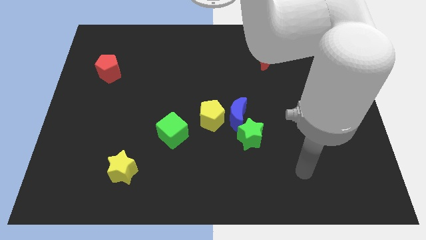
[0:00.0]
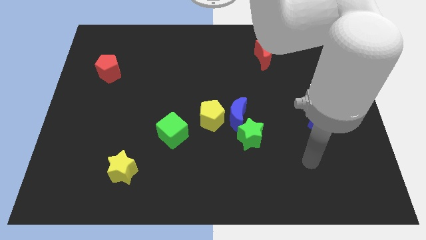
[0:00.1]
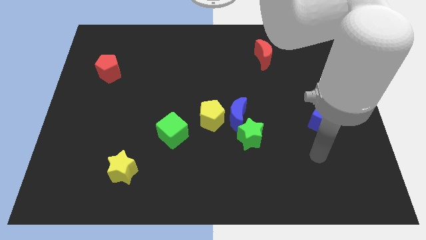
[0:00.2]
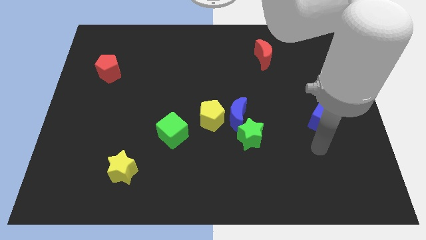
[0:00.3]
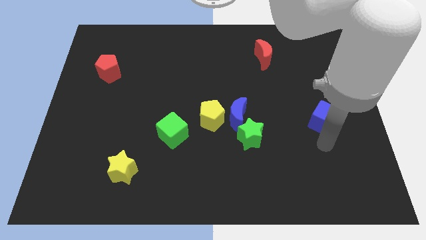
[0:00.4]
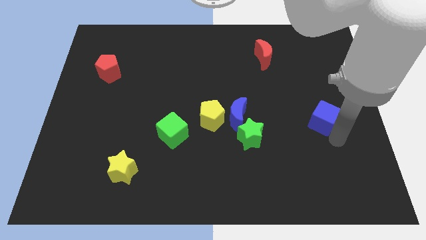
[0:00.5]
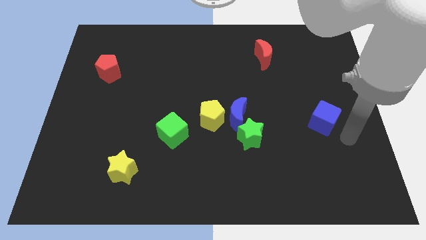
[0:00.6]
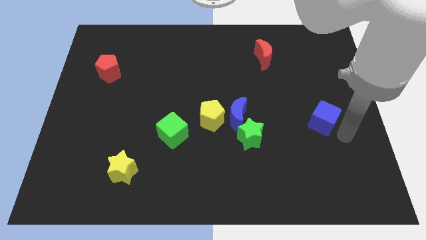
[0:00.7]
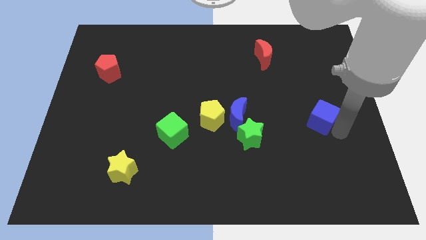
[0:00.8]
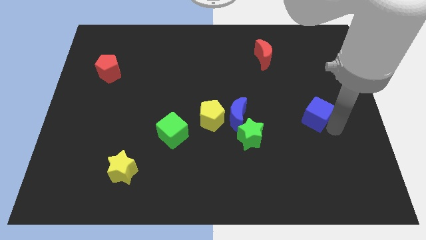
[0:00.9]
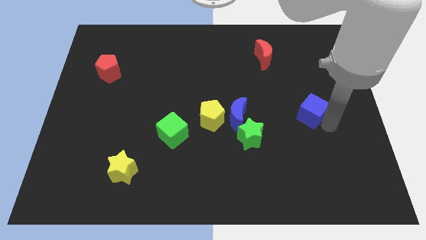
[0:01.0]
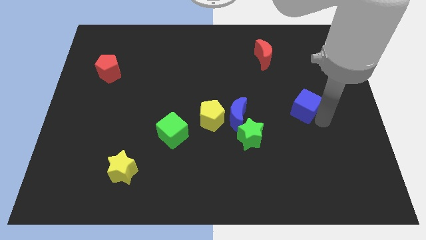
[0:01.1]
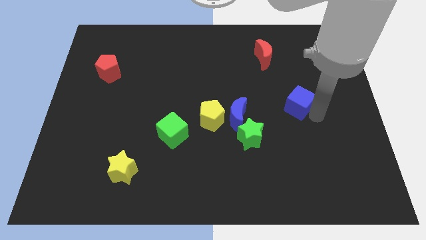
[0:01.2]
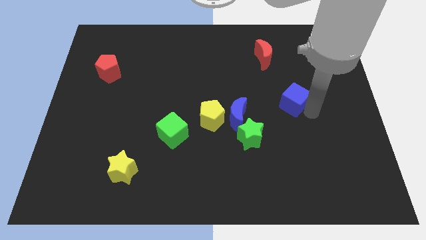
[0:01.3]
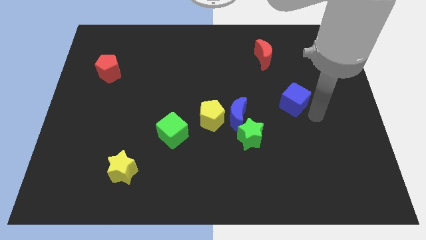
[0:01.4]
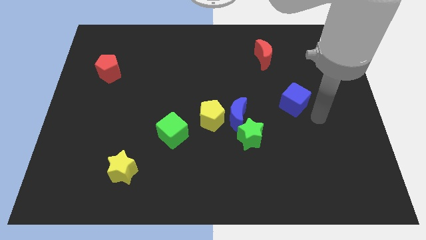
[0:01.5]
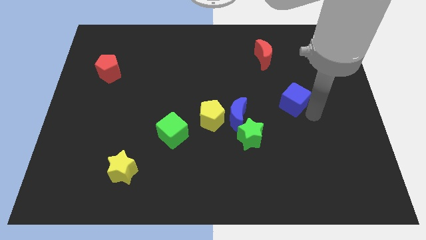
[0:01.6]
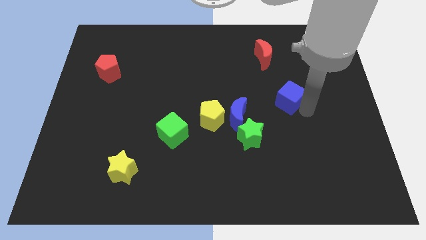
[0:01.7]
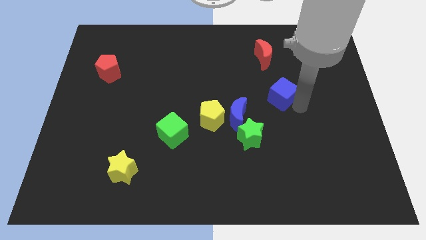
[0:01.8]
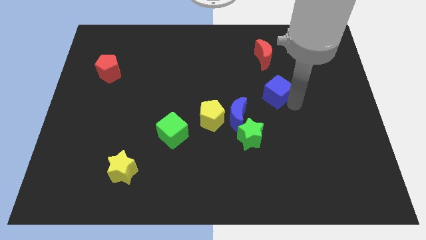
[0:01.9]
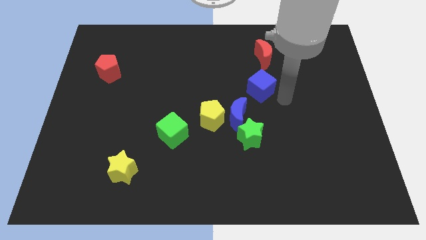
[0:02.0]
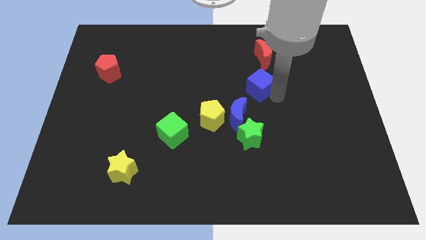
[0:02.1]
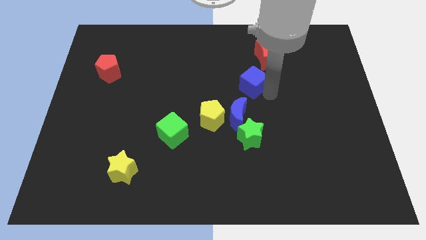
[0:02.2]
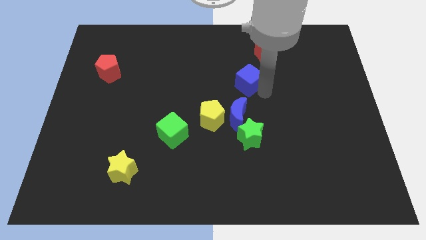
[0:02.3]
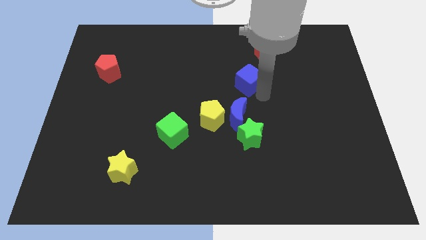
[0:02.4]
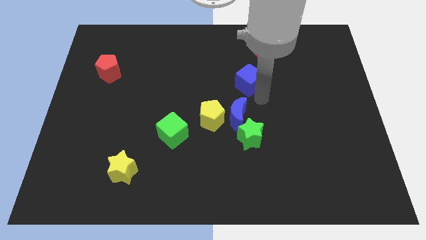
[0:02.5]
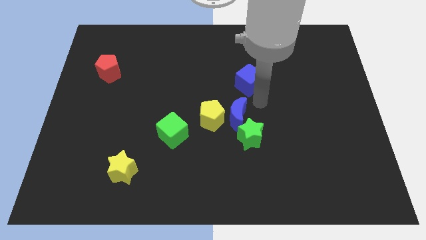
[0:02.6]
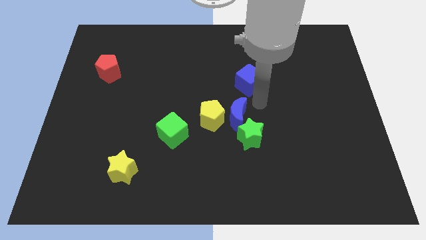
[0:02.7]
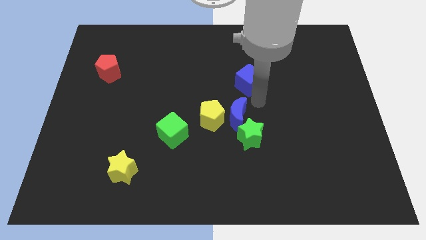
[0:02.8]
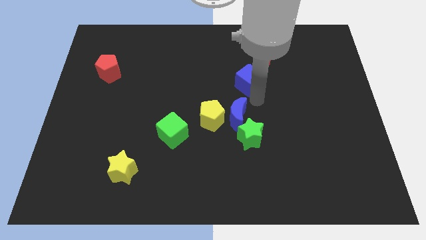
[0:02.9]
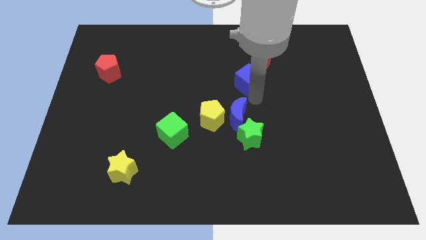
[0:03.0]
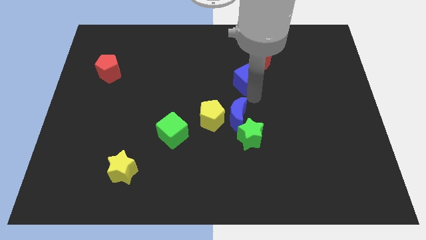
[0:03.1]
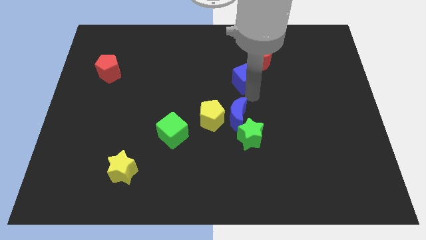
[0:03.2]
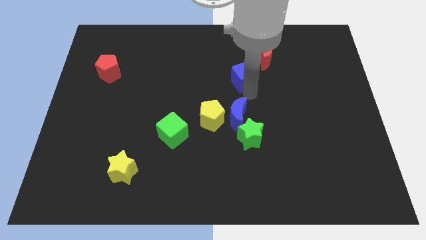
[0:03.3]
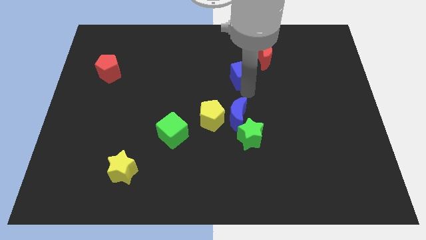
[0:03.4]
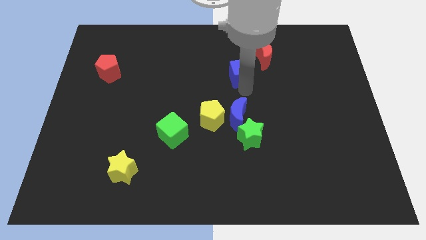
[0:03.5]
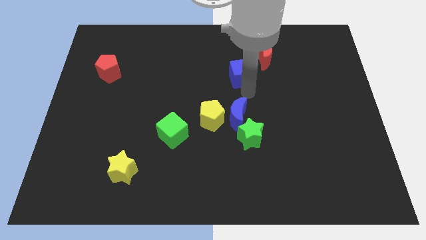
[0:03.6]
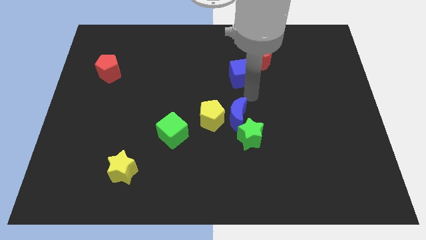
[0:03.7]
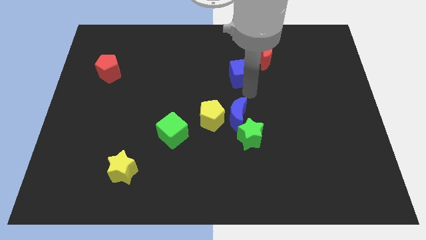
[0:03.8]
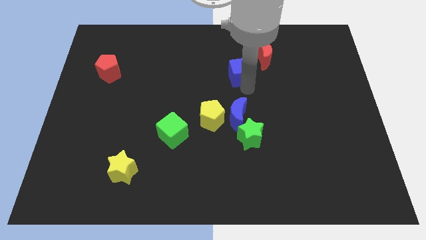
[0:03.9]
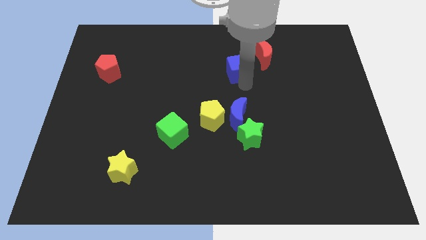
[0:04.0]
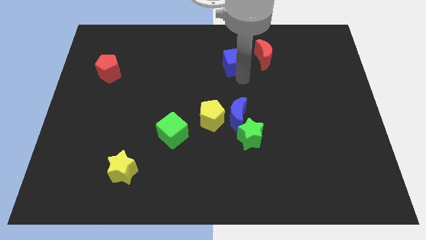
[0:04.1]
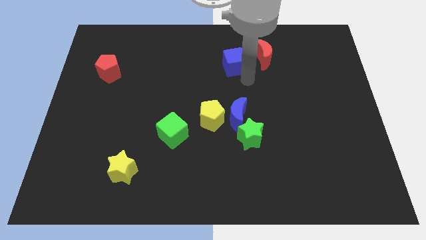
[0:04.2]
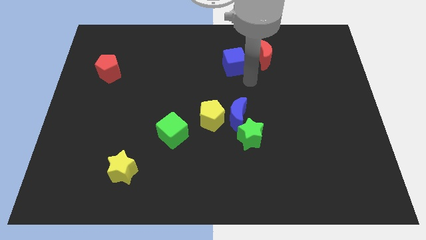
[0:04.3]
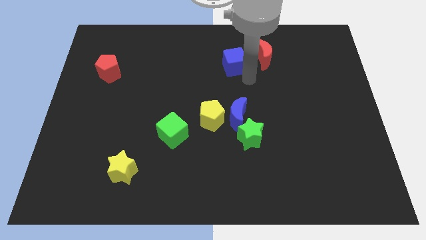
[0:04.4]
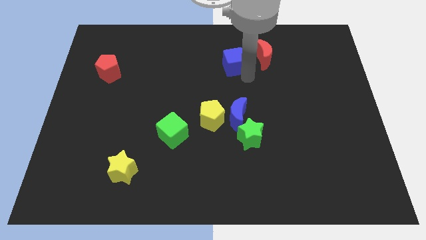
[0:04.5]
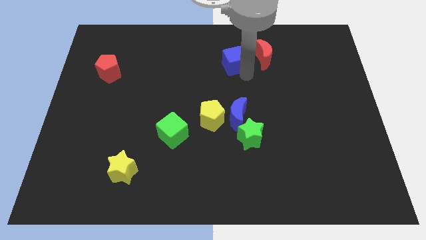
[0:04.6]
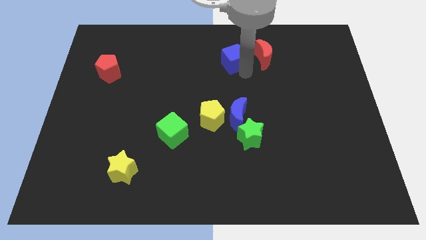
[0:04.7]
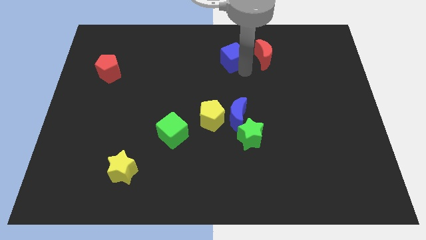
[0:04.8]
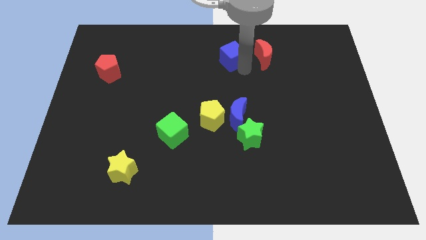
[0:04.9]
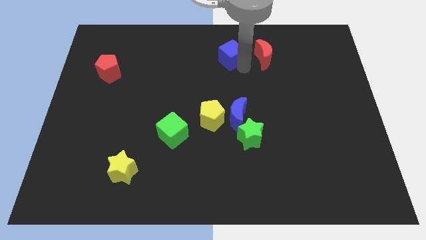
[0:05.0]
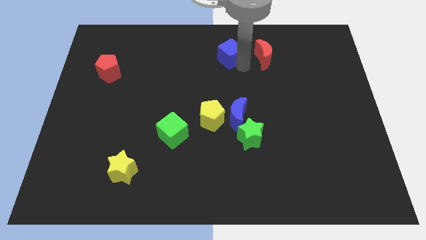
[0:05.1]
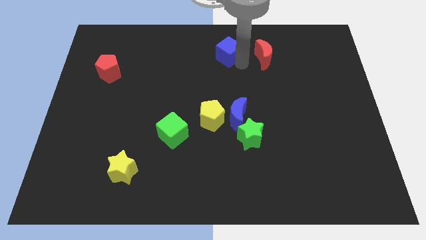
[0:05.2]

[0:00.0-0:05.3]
push the blue cube to the top

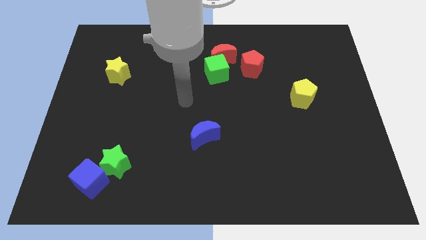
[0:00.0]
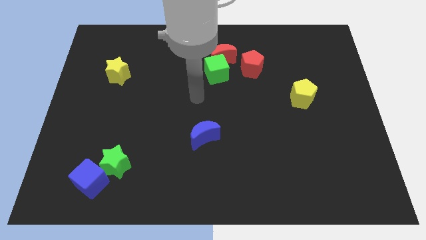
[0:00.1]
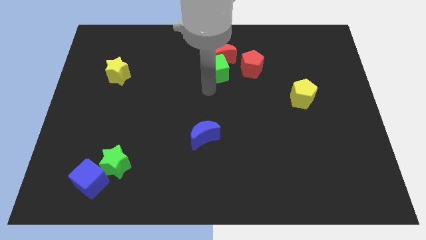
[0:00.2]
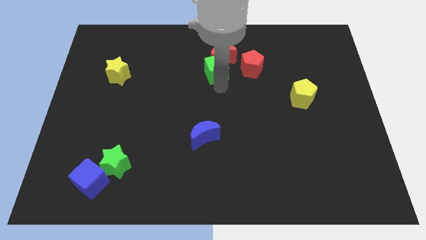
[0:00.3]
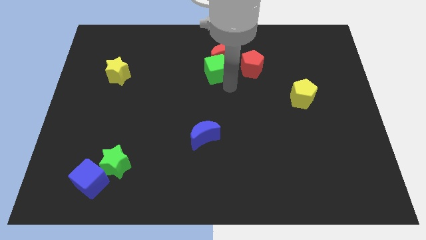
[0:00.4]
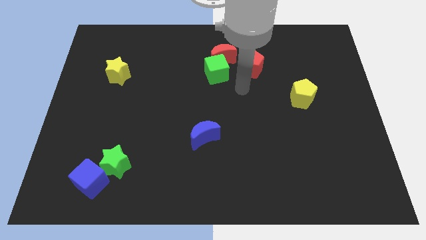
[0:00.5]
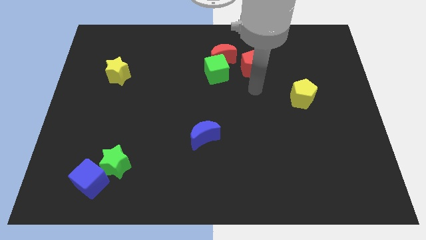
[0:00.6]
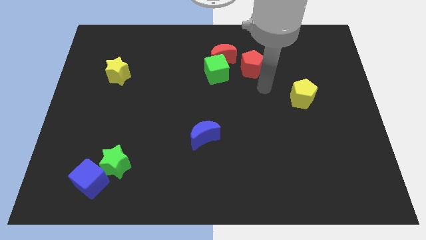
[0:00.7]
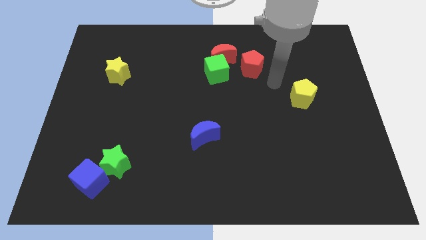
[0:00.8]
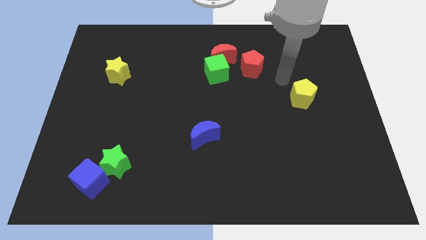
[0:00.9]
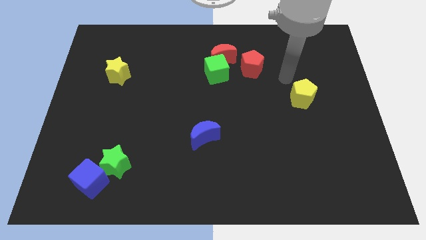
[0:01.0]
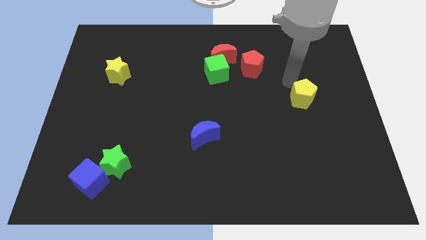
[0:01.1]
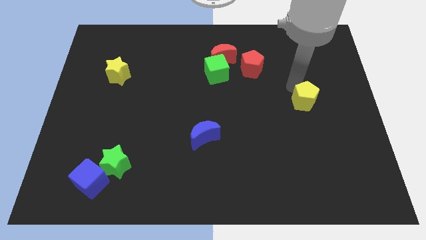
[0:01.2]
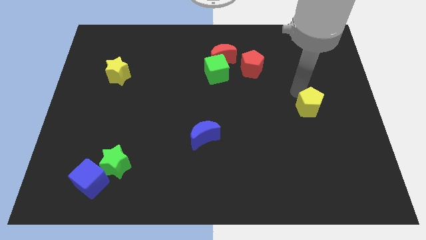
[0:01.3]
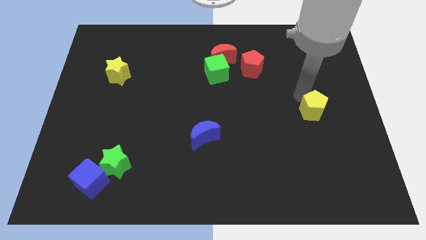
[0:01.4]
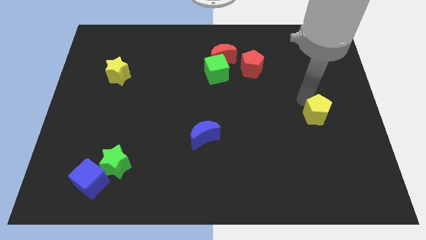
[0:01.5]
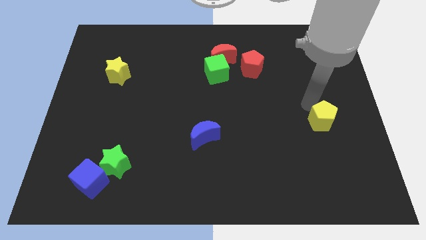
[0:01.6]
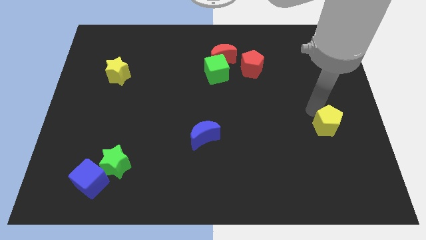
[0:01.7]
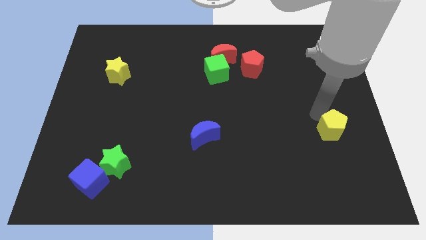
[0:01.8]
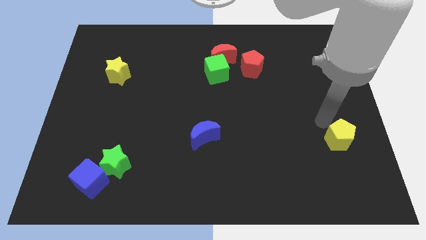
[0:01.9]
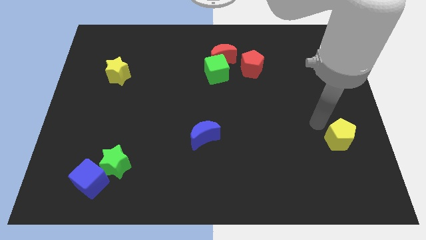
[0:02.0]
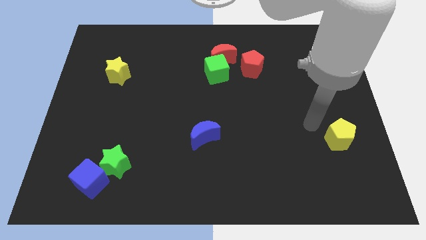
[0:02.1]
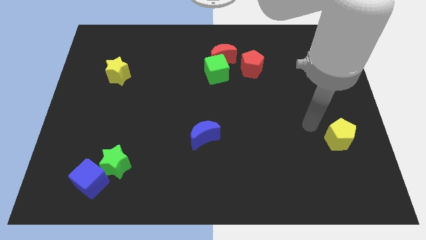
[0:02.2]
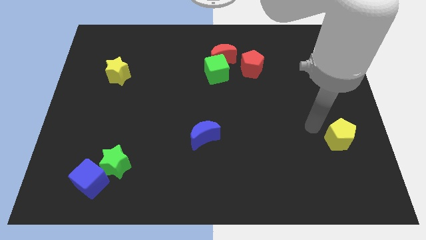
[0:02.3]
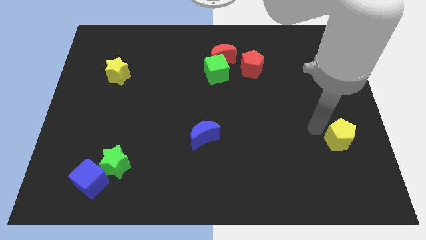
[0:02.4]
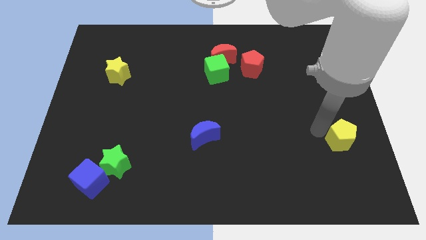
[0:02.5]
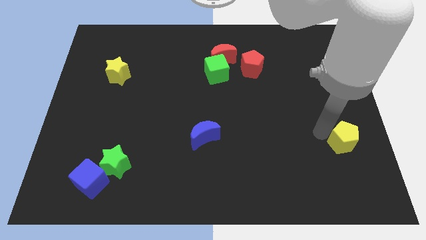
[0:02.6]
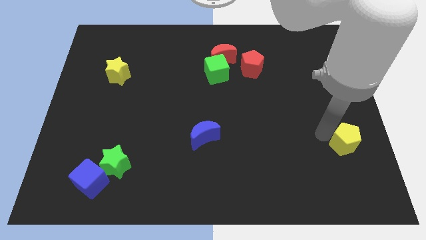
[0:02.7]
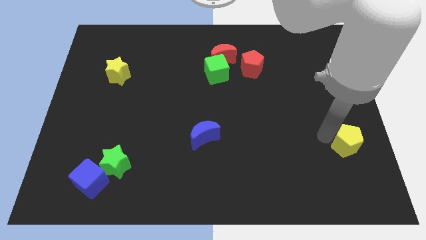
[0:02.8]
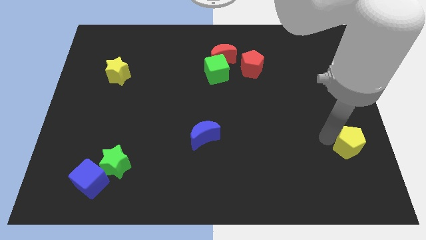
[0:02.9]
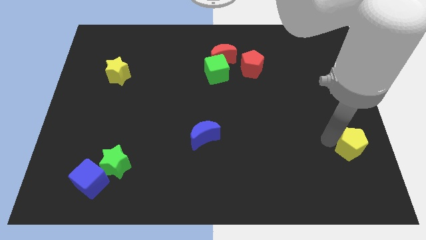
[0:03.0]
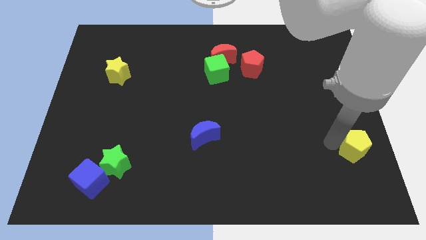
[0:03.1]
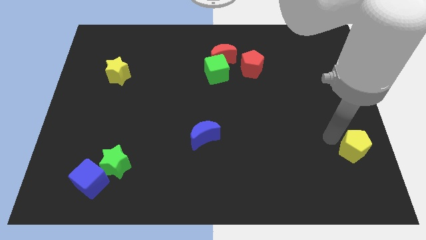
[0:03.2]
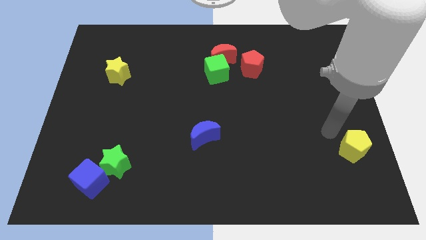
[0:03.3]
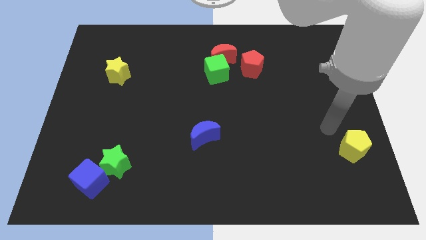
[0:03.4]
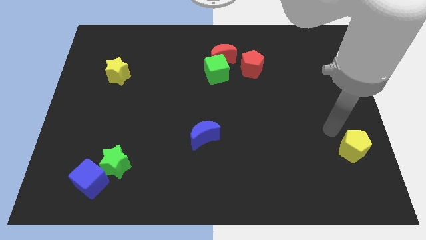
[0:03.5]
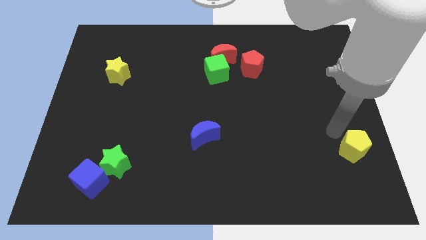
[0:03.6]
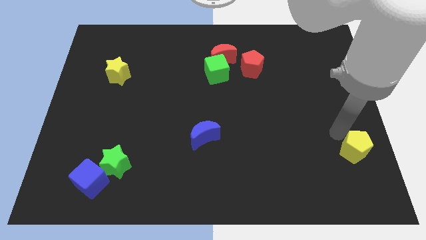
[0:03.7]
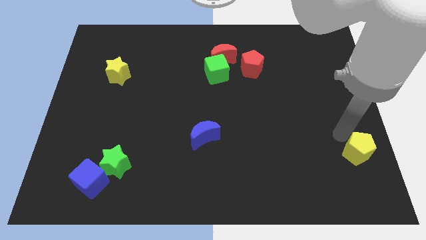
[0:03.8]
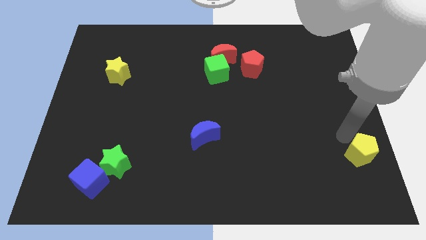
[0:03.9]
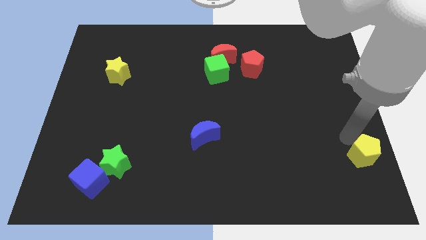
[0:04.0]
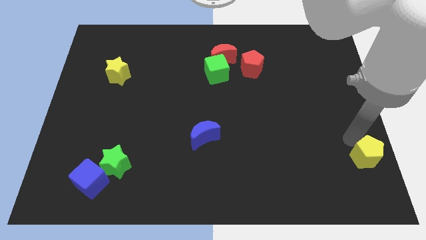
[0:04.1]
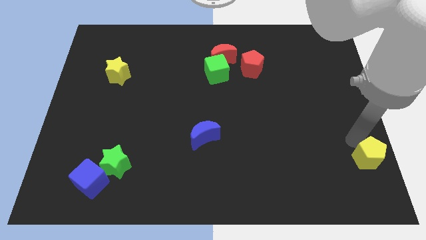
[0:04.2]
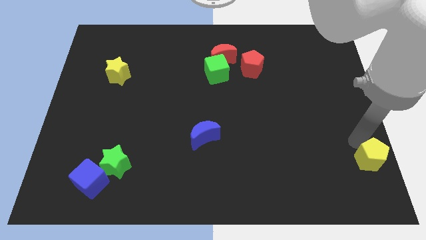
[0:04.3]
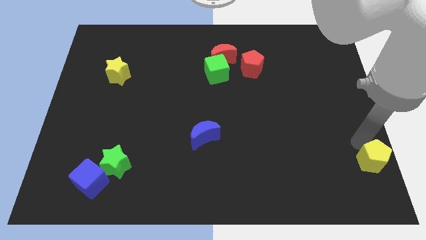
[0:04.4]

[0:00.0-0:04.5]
move the yellow pentagon to the bottom right corner
